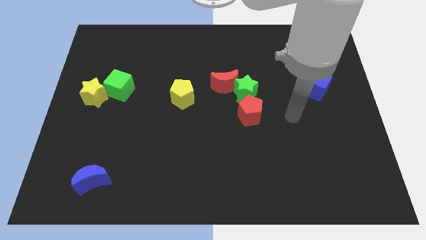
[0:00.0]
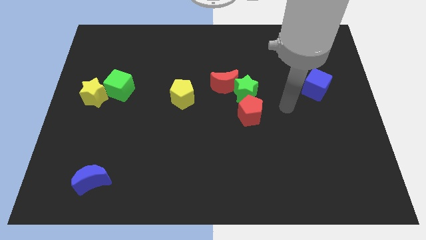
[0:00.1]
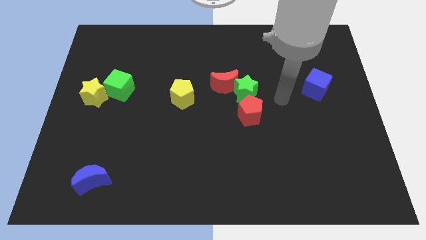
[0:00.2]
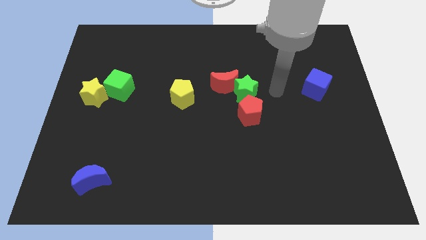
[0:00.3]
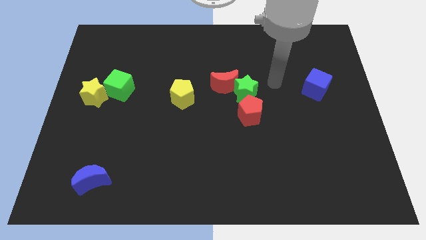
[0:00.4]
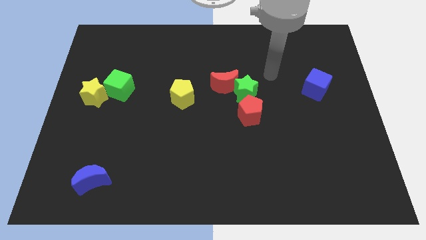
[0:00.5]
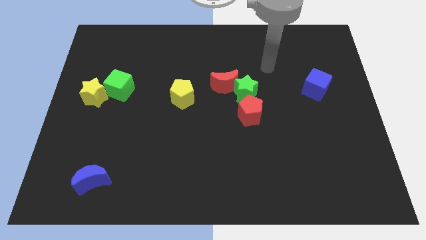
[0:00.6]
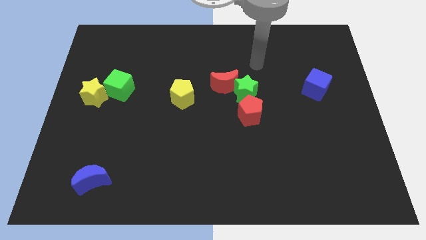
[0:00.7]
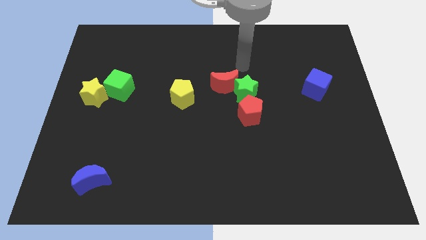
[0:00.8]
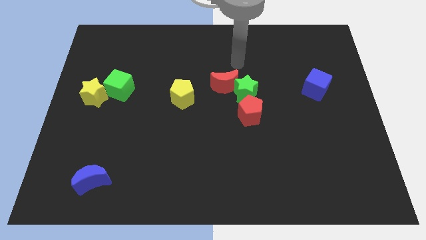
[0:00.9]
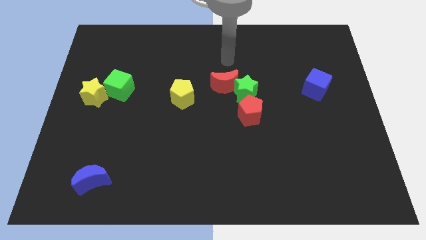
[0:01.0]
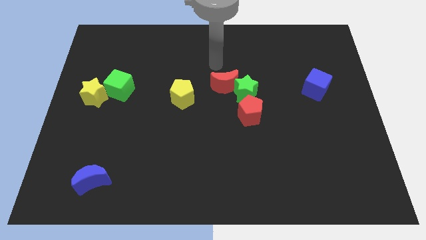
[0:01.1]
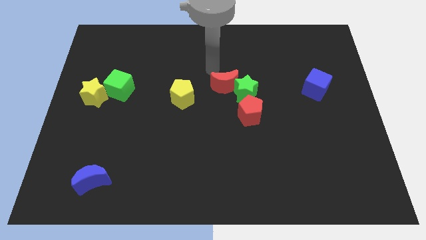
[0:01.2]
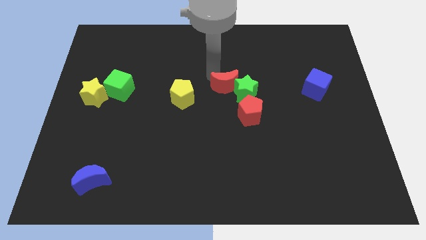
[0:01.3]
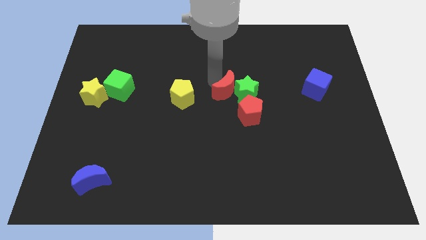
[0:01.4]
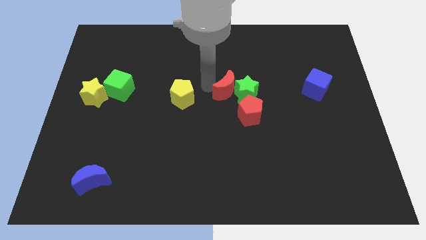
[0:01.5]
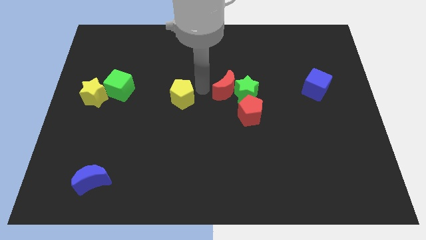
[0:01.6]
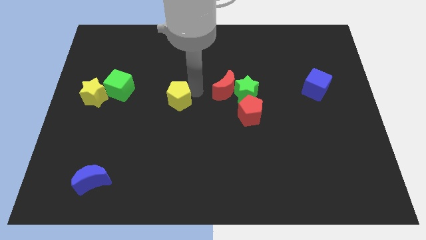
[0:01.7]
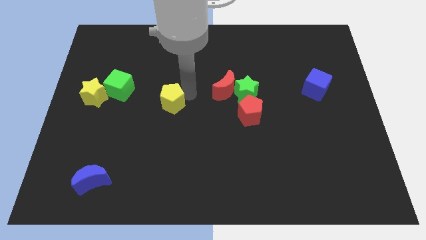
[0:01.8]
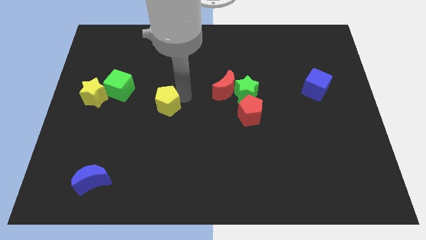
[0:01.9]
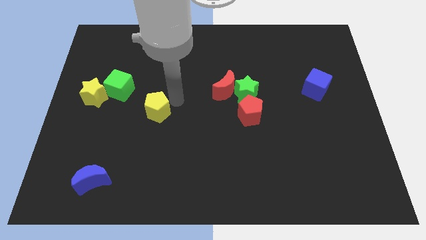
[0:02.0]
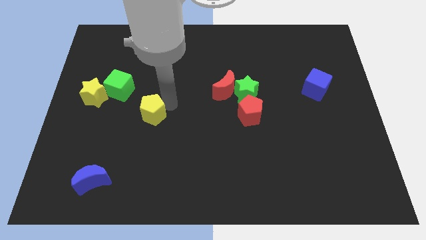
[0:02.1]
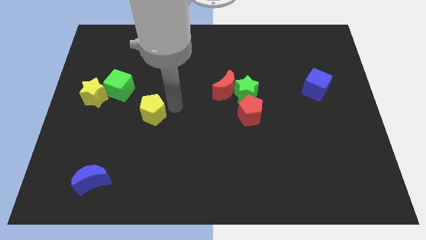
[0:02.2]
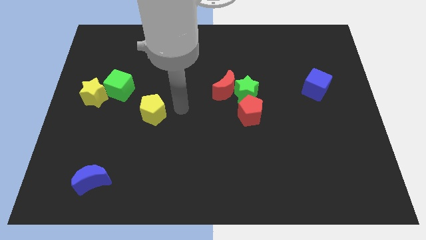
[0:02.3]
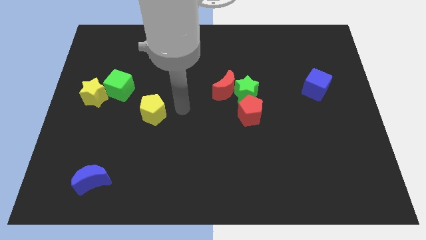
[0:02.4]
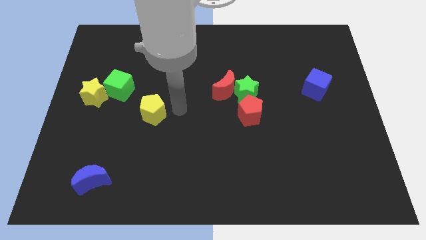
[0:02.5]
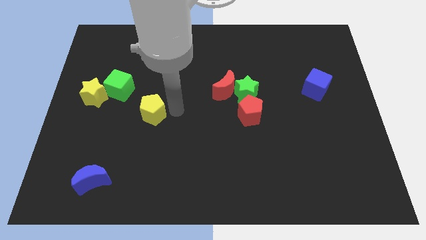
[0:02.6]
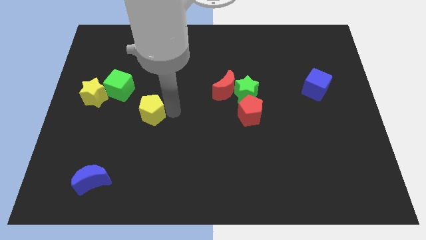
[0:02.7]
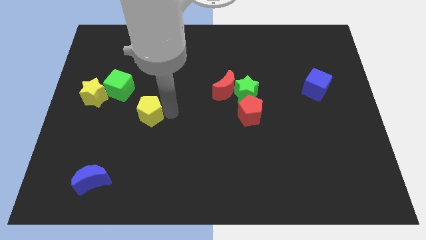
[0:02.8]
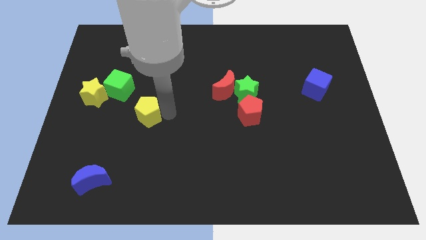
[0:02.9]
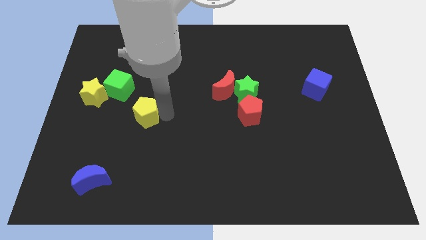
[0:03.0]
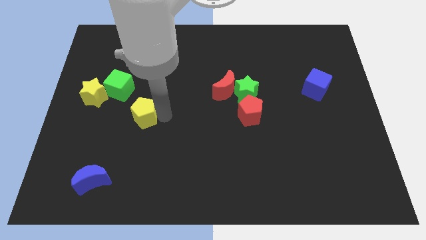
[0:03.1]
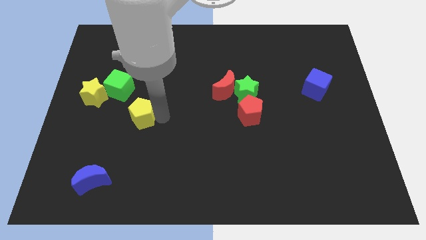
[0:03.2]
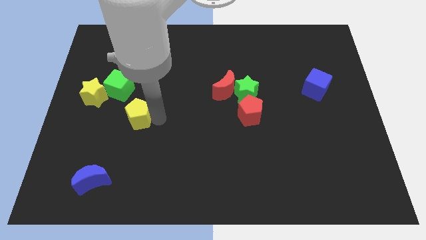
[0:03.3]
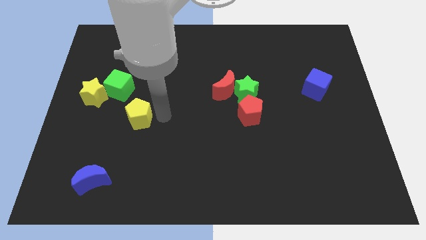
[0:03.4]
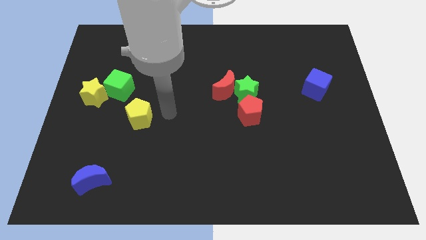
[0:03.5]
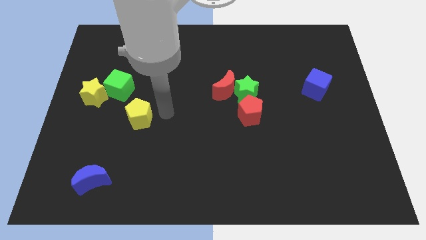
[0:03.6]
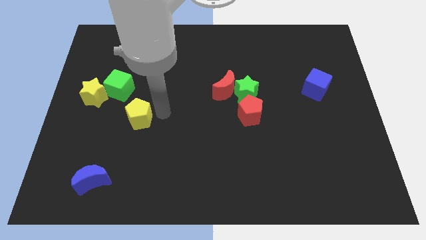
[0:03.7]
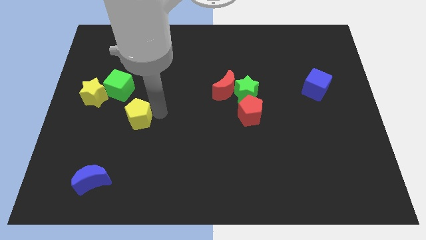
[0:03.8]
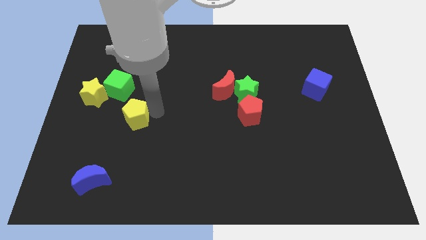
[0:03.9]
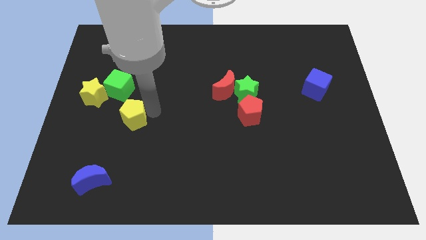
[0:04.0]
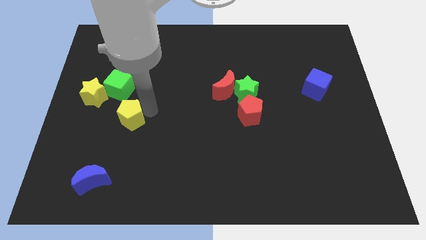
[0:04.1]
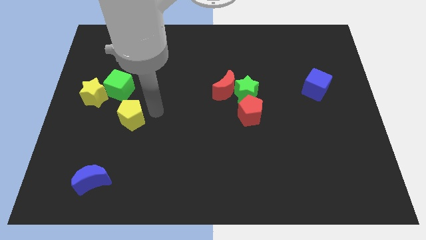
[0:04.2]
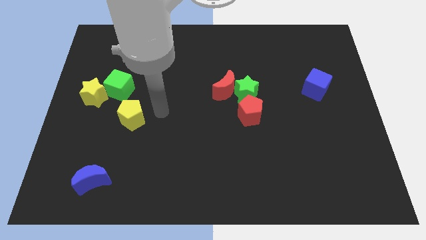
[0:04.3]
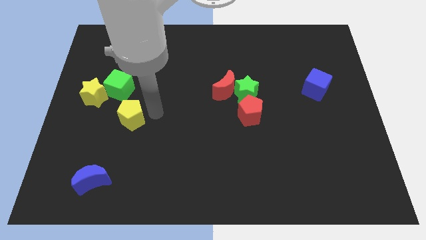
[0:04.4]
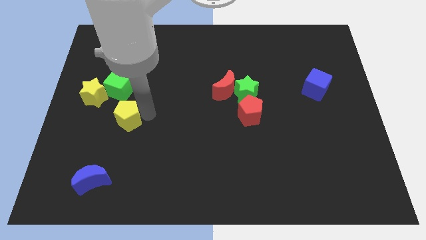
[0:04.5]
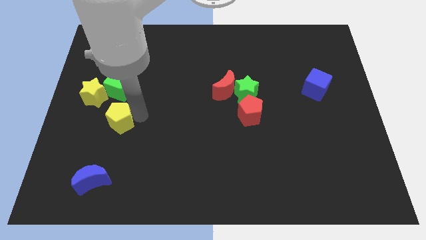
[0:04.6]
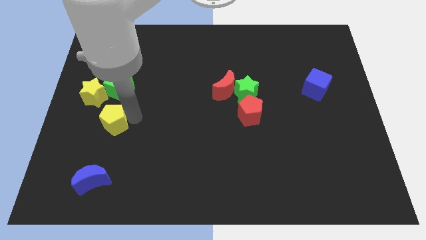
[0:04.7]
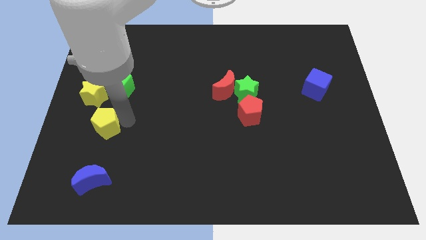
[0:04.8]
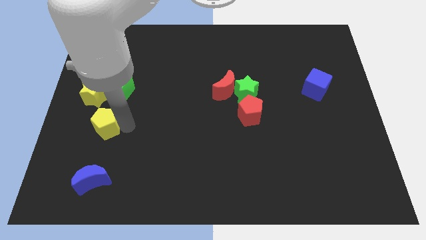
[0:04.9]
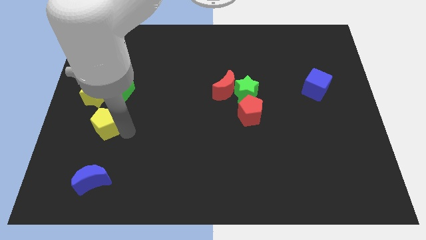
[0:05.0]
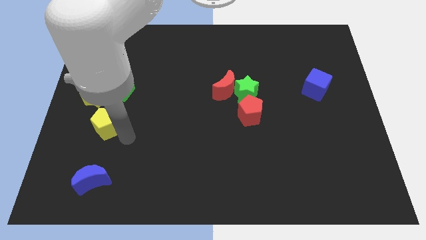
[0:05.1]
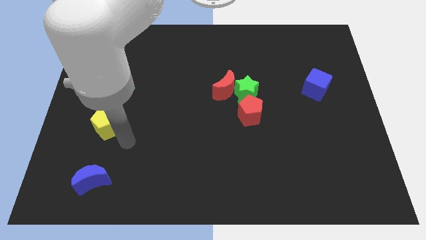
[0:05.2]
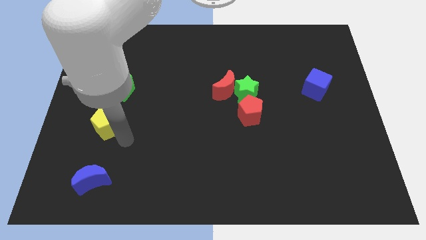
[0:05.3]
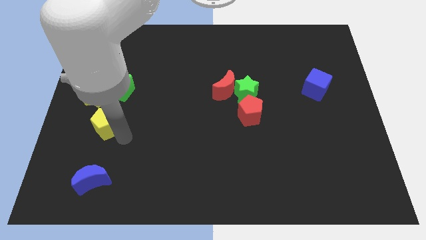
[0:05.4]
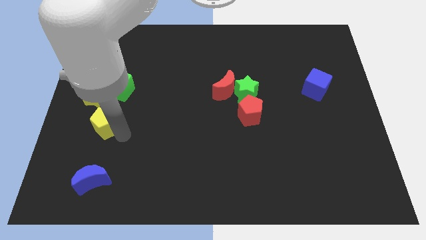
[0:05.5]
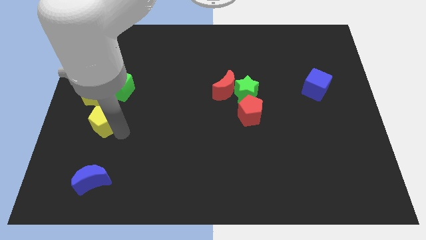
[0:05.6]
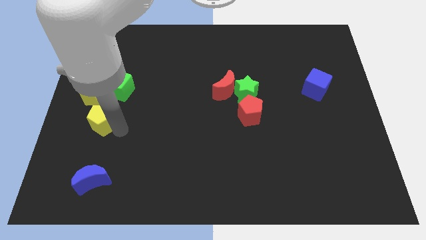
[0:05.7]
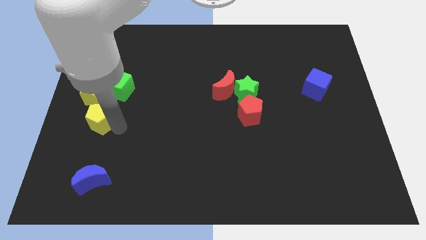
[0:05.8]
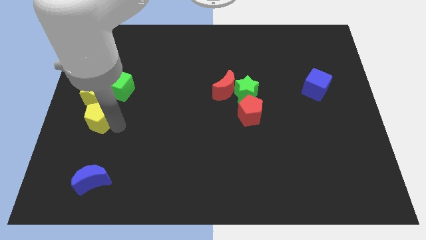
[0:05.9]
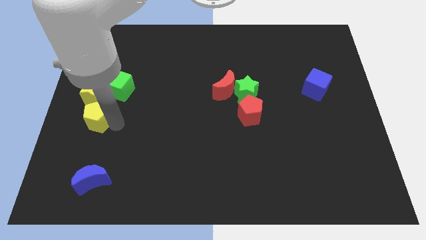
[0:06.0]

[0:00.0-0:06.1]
push the yellow pentagon to the left side of the board
